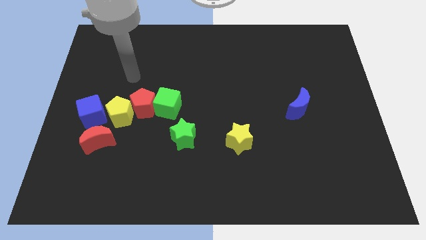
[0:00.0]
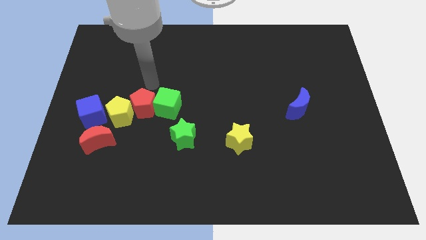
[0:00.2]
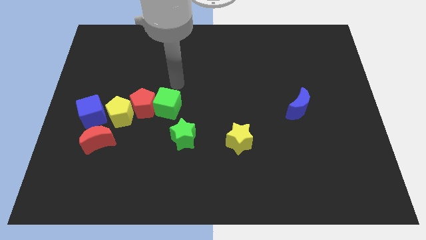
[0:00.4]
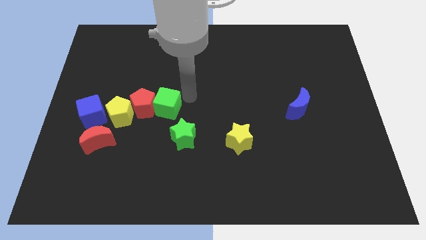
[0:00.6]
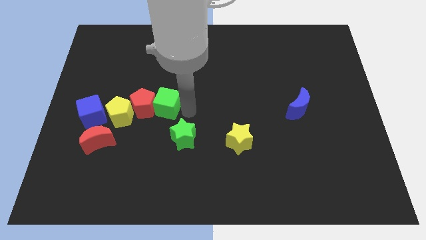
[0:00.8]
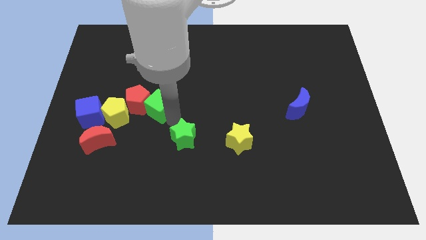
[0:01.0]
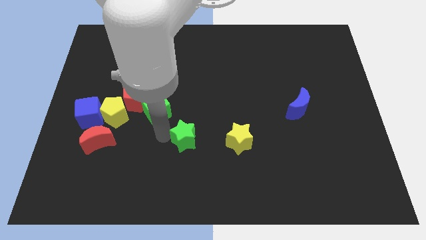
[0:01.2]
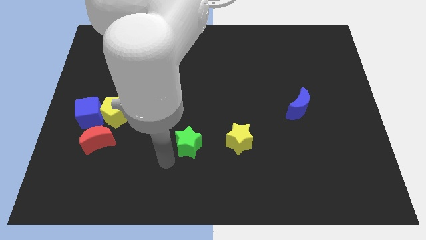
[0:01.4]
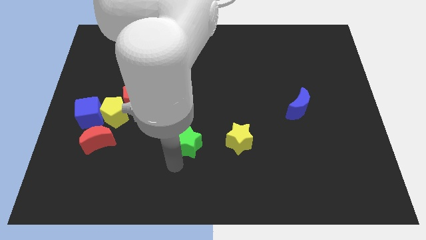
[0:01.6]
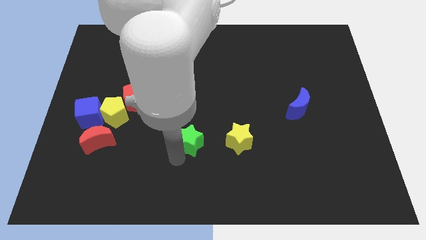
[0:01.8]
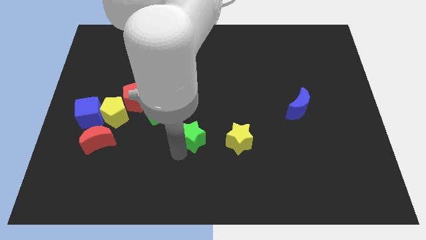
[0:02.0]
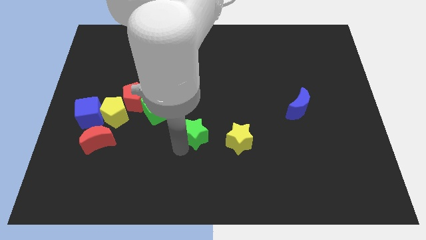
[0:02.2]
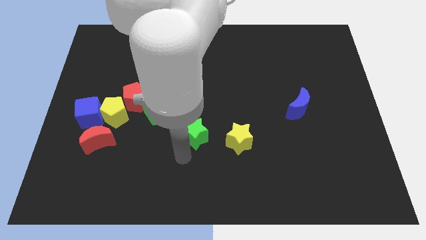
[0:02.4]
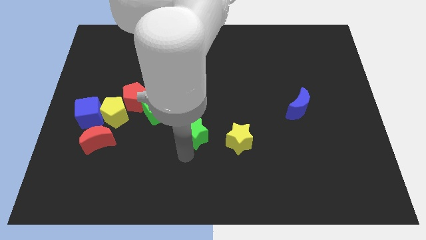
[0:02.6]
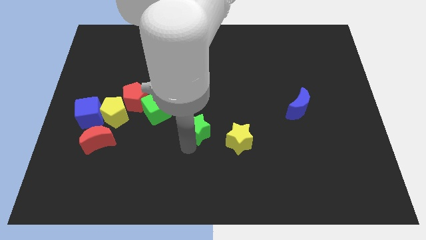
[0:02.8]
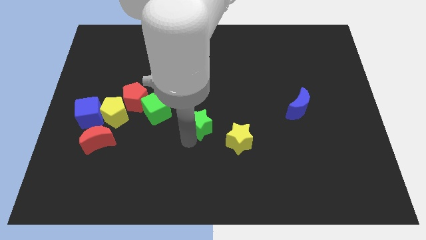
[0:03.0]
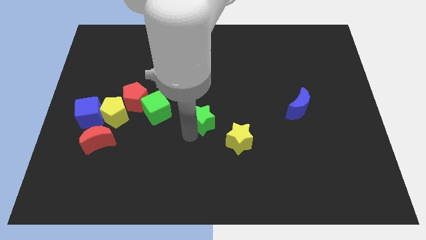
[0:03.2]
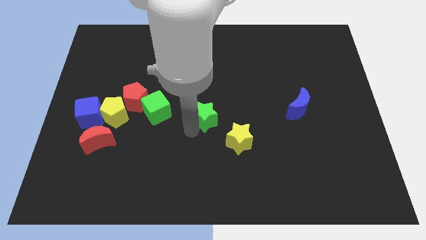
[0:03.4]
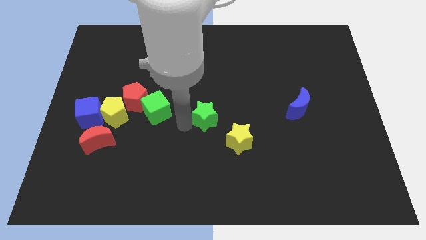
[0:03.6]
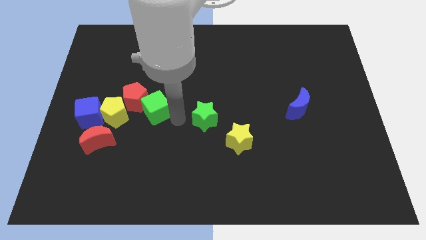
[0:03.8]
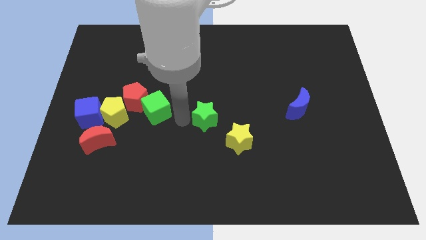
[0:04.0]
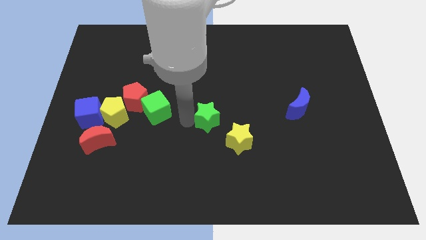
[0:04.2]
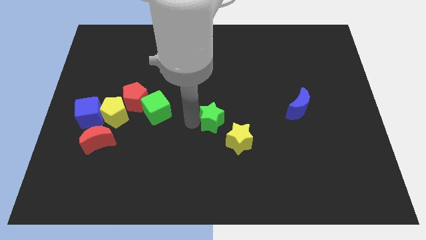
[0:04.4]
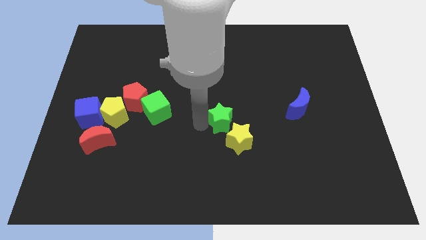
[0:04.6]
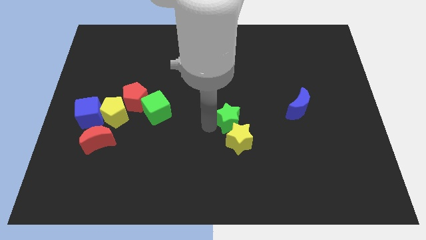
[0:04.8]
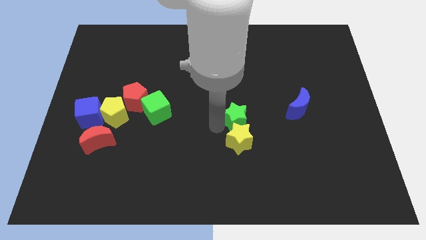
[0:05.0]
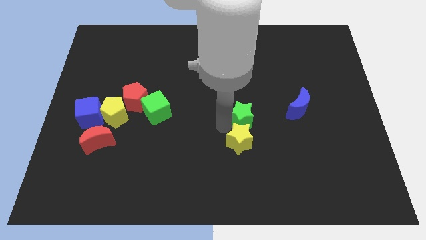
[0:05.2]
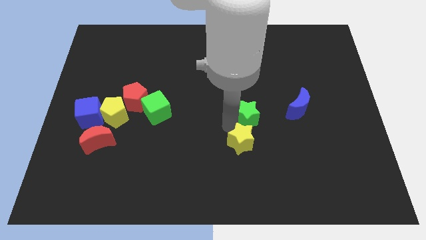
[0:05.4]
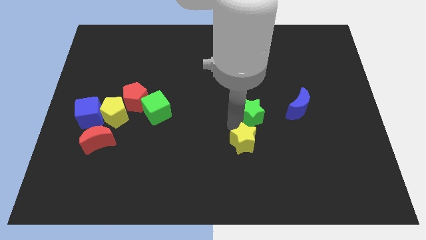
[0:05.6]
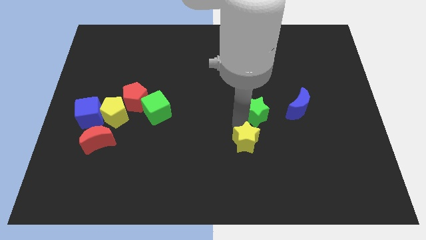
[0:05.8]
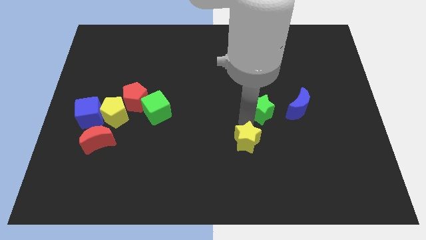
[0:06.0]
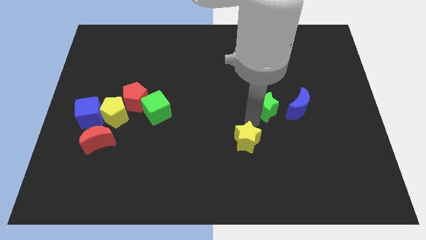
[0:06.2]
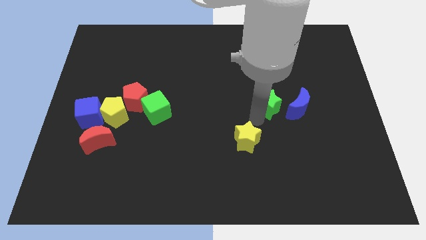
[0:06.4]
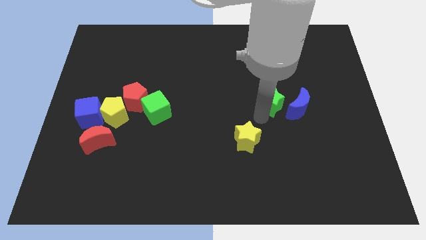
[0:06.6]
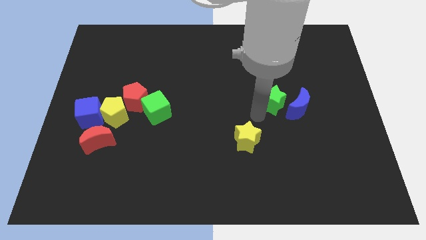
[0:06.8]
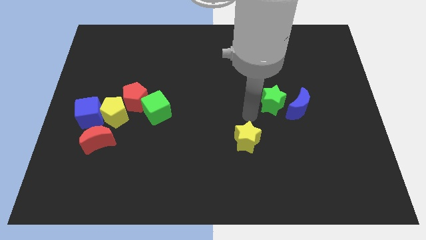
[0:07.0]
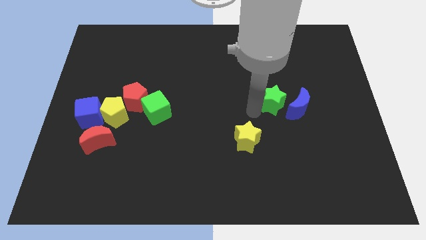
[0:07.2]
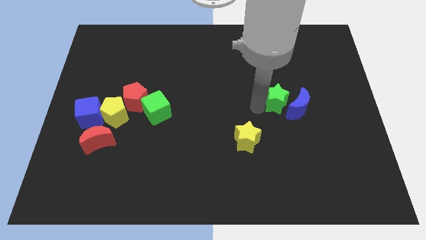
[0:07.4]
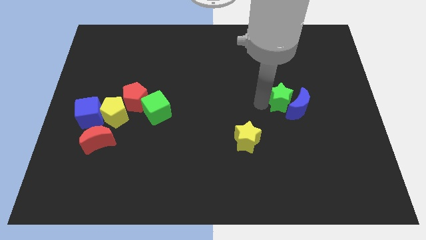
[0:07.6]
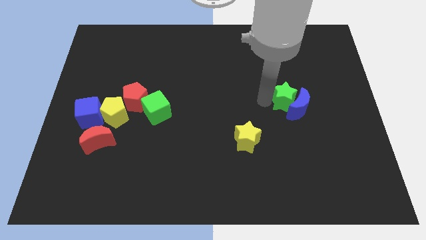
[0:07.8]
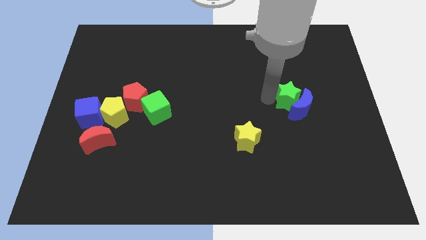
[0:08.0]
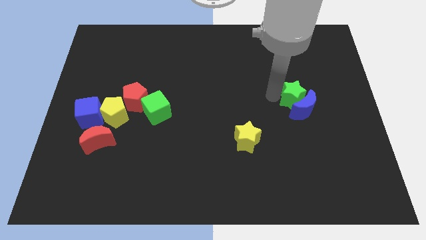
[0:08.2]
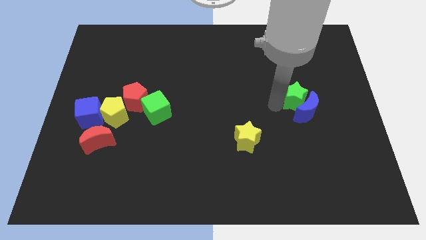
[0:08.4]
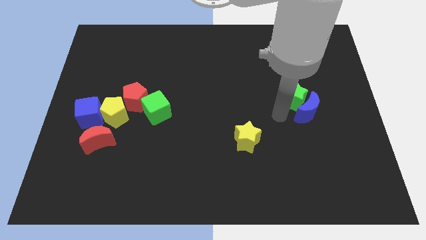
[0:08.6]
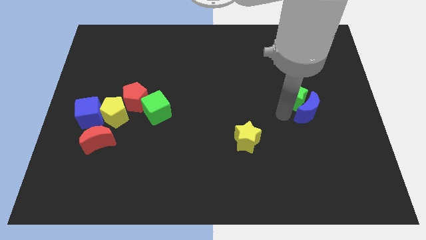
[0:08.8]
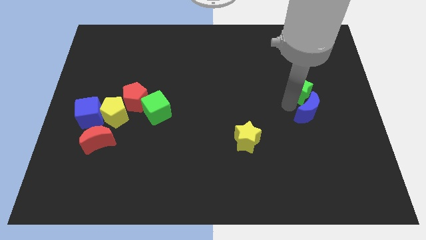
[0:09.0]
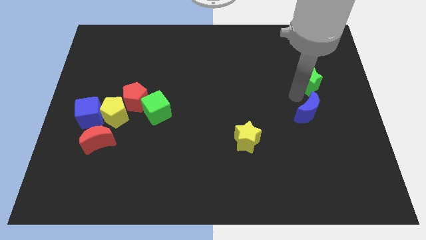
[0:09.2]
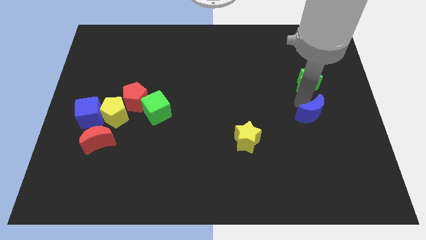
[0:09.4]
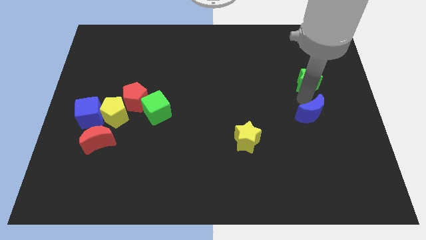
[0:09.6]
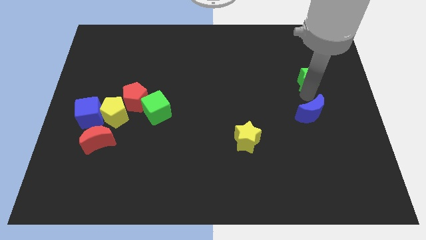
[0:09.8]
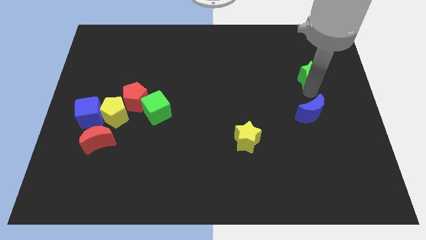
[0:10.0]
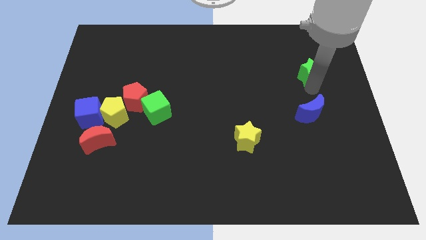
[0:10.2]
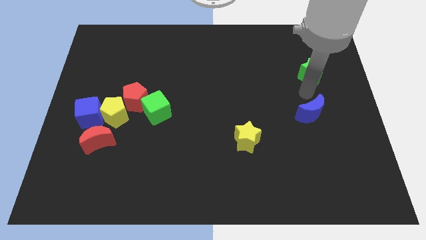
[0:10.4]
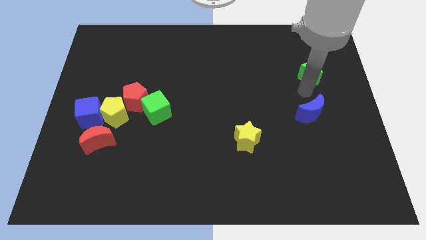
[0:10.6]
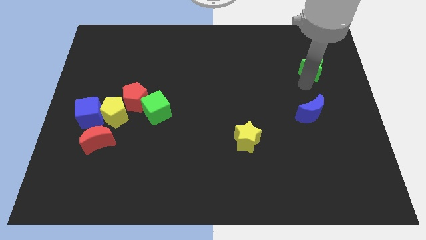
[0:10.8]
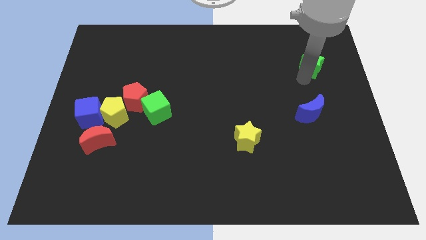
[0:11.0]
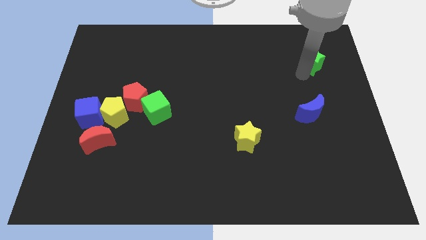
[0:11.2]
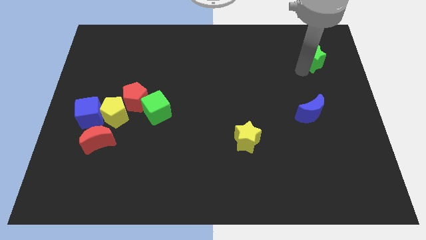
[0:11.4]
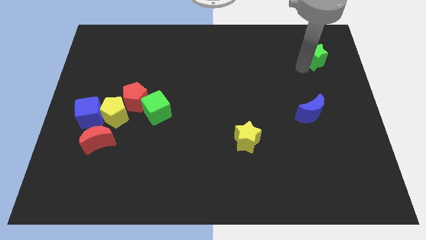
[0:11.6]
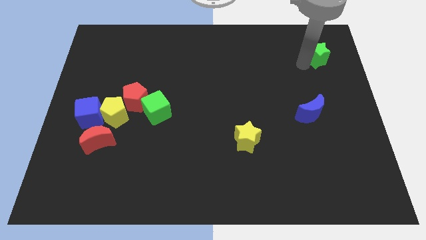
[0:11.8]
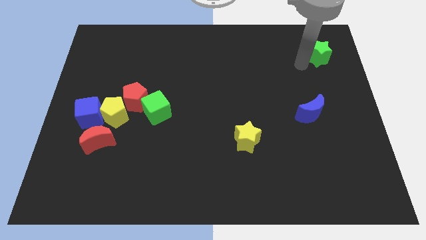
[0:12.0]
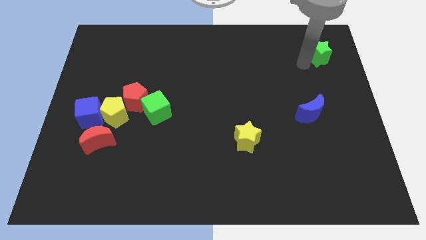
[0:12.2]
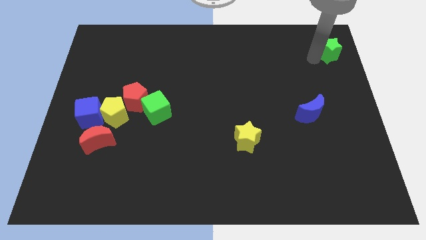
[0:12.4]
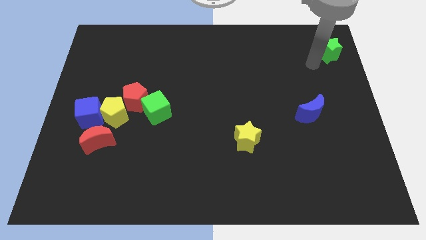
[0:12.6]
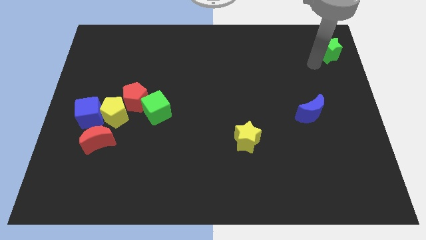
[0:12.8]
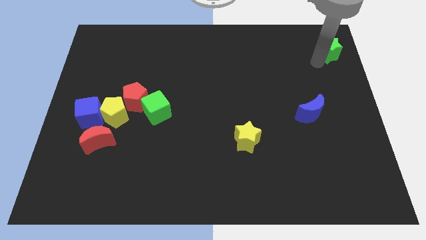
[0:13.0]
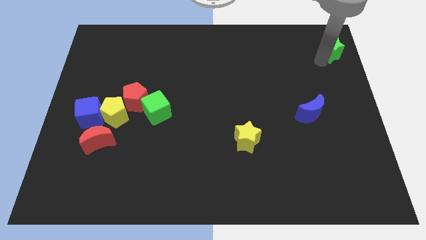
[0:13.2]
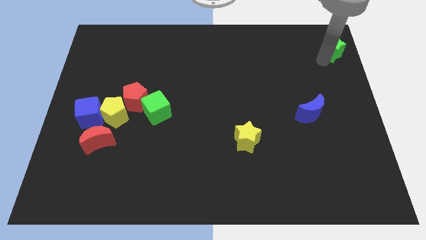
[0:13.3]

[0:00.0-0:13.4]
move the green star to the top right
